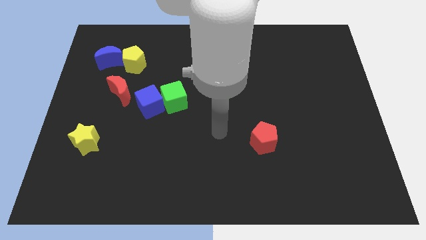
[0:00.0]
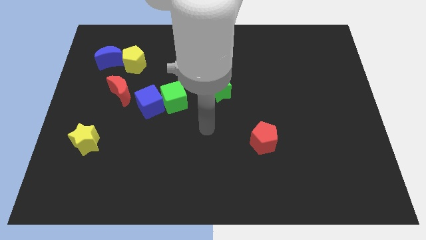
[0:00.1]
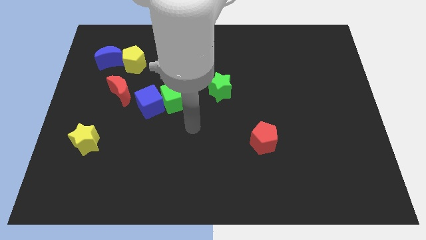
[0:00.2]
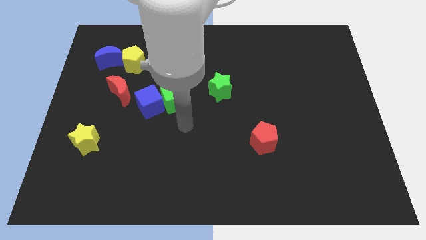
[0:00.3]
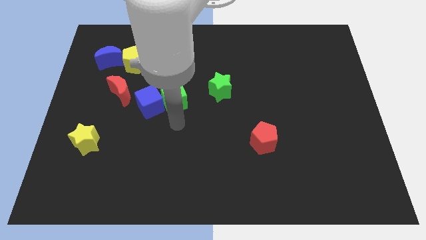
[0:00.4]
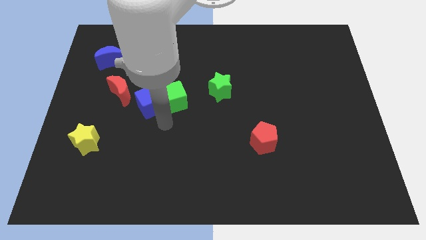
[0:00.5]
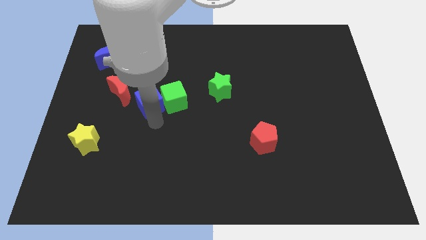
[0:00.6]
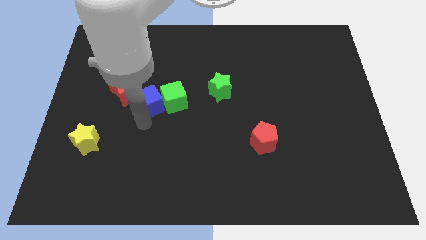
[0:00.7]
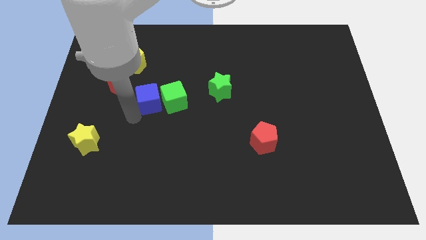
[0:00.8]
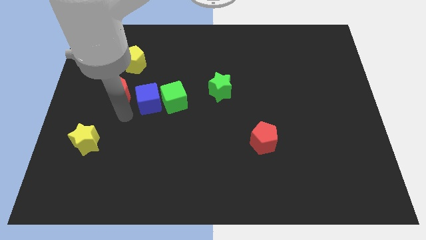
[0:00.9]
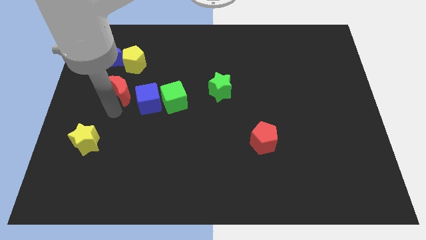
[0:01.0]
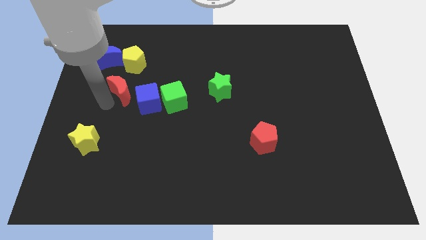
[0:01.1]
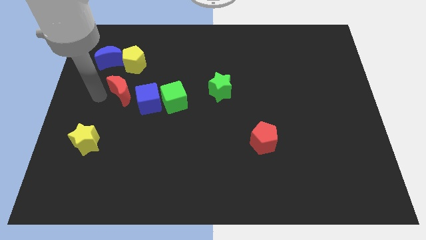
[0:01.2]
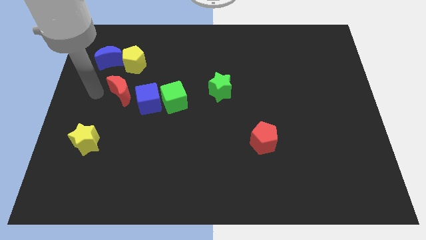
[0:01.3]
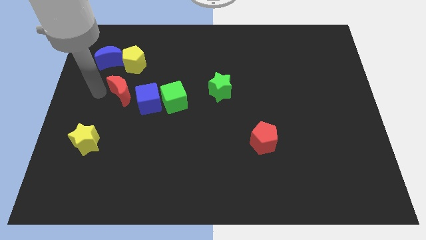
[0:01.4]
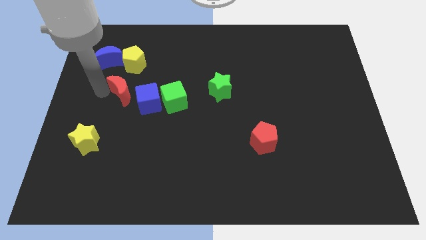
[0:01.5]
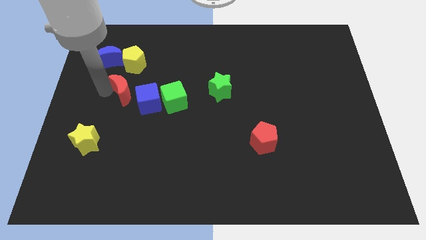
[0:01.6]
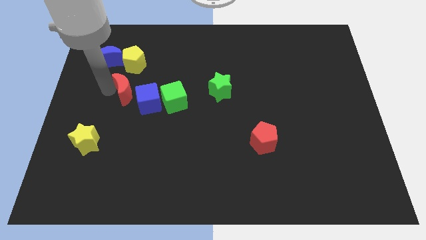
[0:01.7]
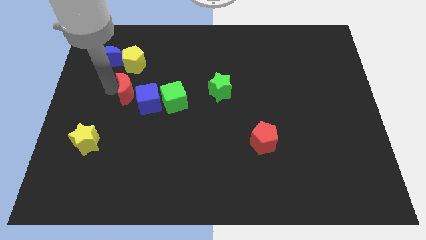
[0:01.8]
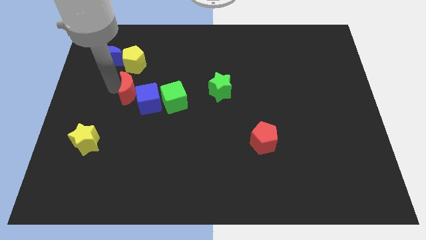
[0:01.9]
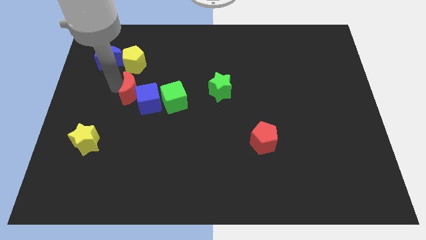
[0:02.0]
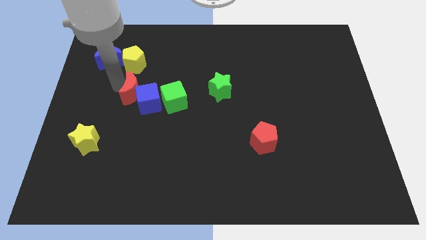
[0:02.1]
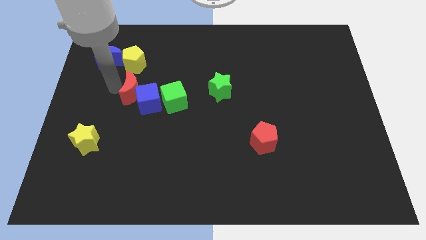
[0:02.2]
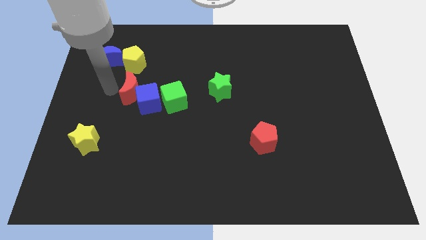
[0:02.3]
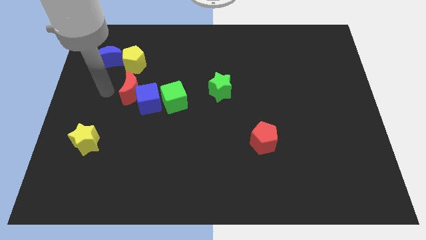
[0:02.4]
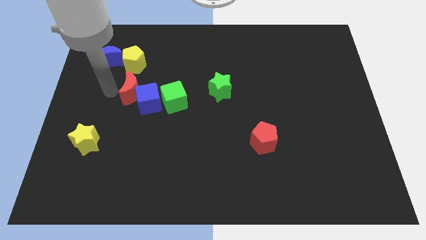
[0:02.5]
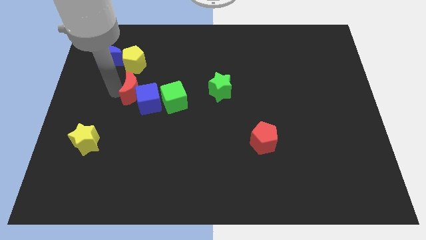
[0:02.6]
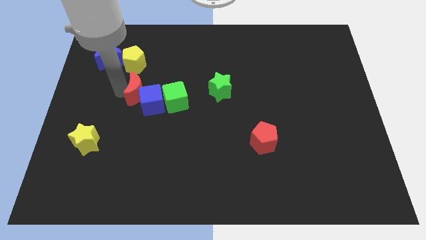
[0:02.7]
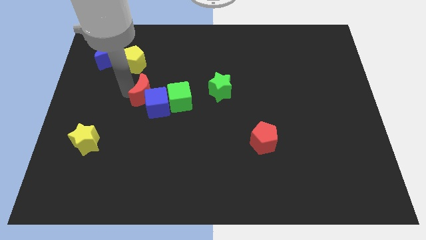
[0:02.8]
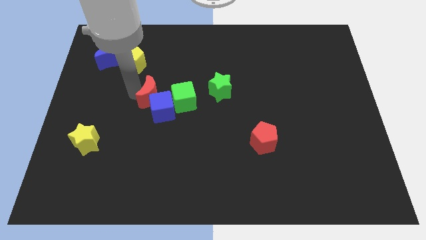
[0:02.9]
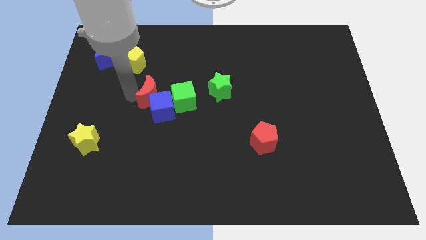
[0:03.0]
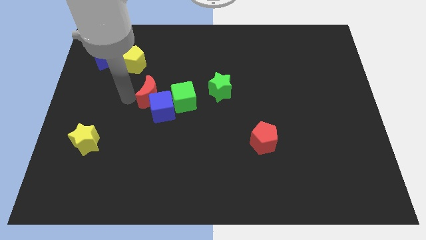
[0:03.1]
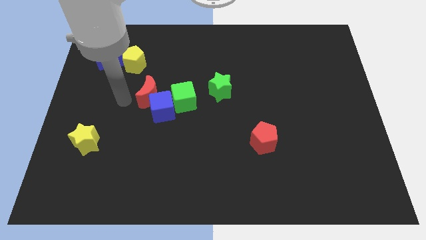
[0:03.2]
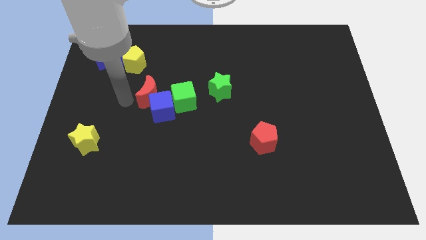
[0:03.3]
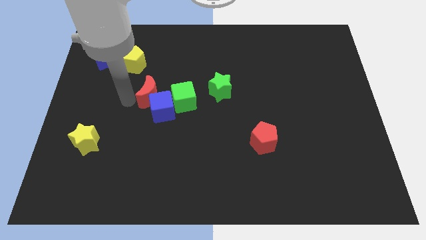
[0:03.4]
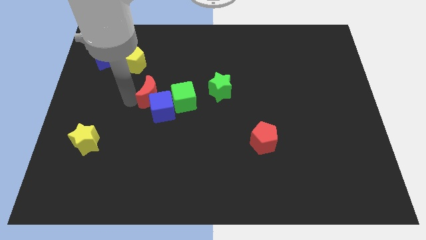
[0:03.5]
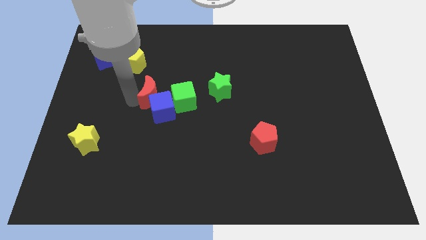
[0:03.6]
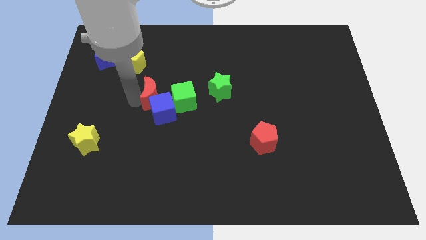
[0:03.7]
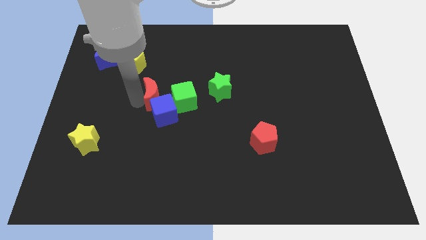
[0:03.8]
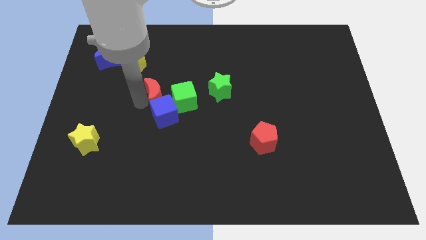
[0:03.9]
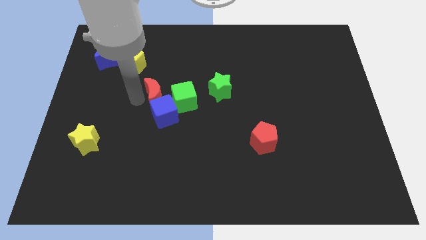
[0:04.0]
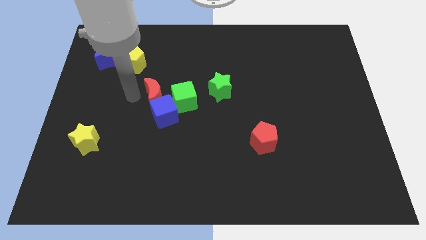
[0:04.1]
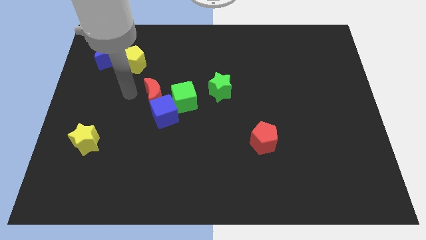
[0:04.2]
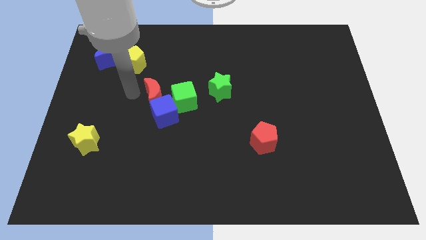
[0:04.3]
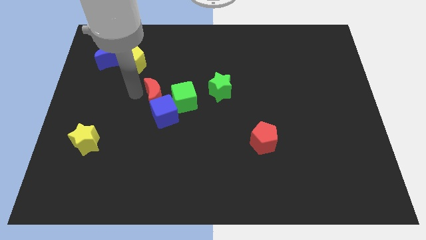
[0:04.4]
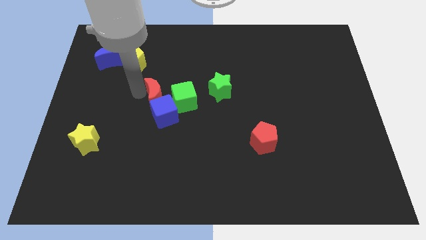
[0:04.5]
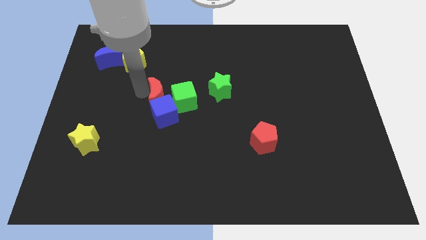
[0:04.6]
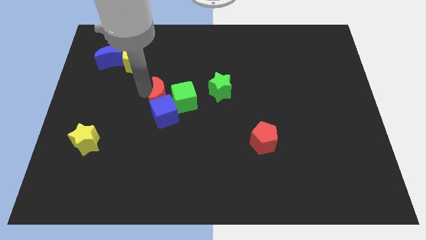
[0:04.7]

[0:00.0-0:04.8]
slide the red moon next to the green cube

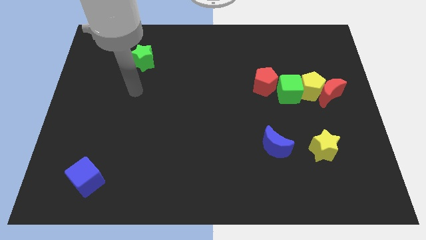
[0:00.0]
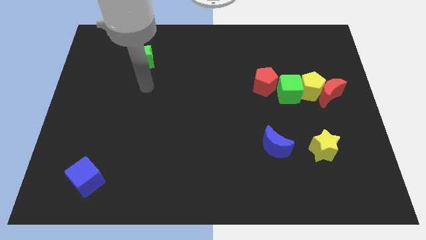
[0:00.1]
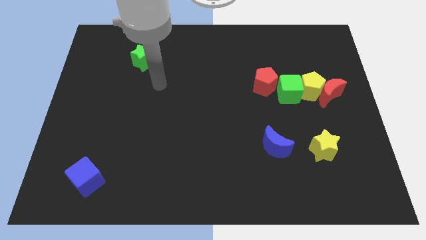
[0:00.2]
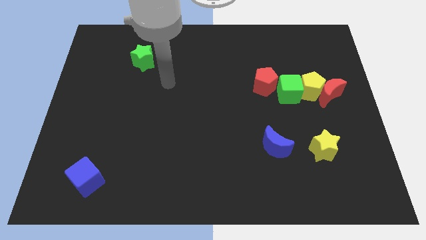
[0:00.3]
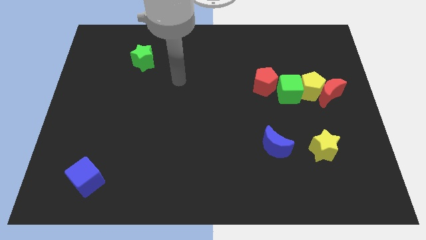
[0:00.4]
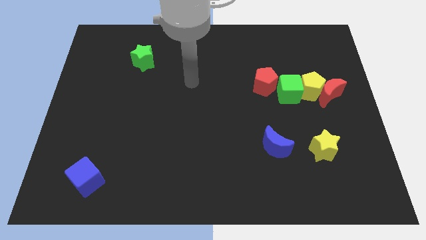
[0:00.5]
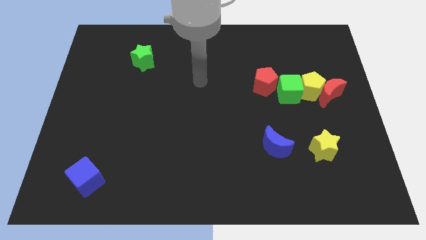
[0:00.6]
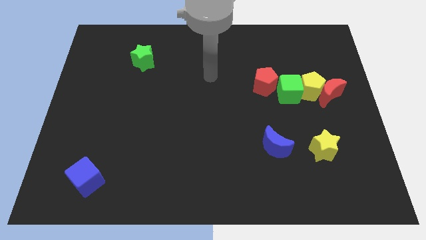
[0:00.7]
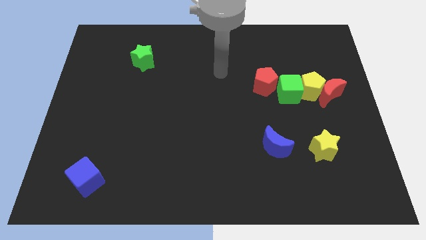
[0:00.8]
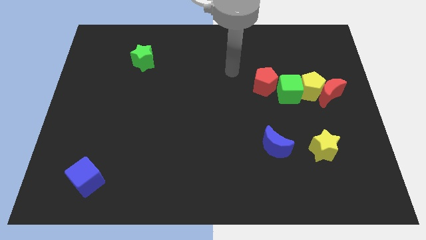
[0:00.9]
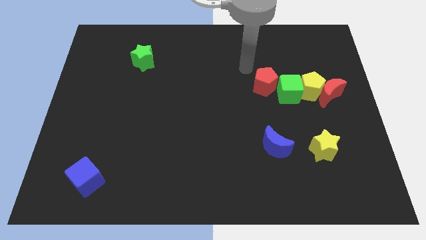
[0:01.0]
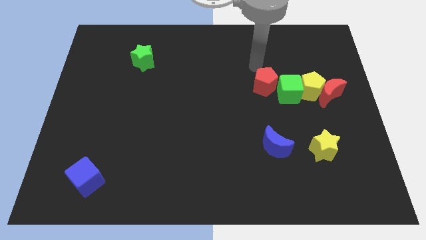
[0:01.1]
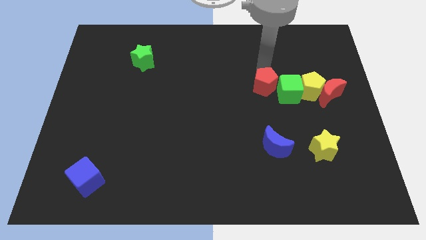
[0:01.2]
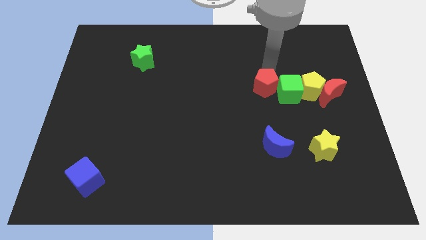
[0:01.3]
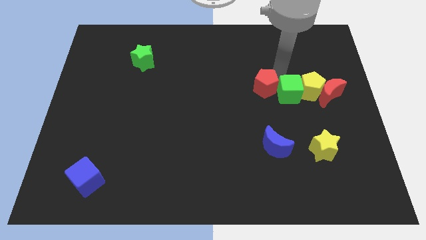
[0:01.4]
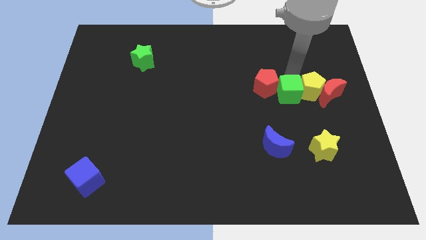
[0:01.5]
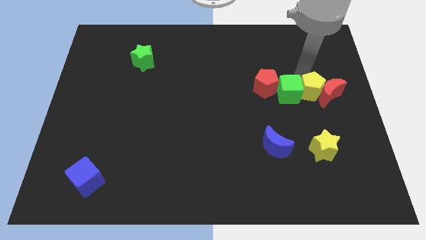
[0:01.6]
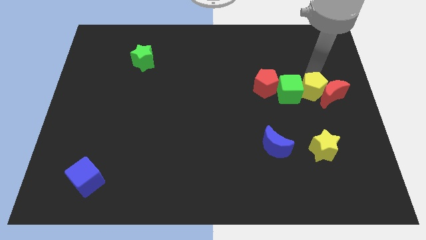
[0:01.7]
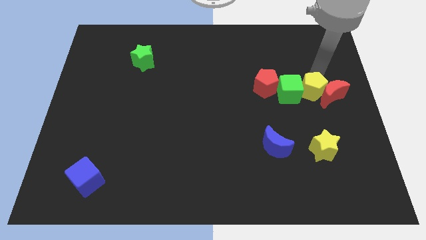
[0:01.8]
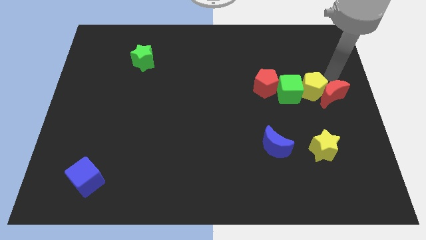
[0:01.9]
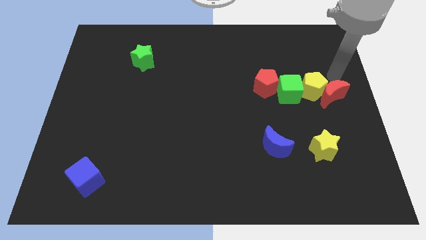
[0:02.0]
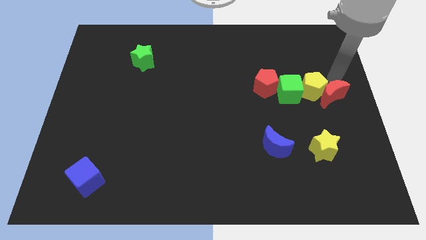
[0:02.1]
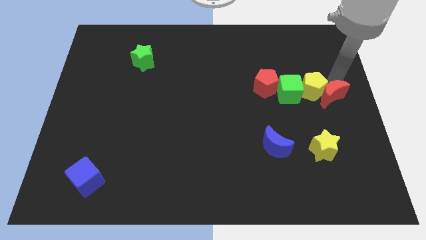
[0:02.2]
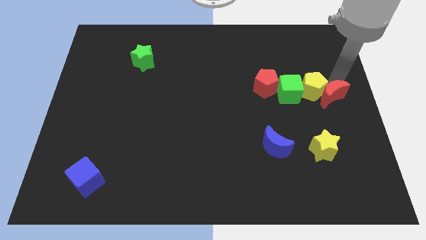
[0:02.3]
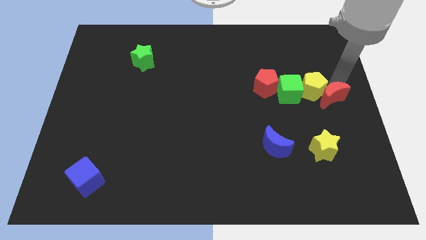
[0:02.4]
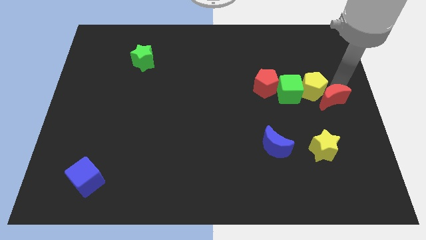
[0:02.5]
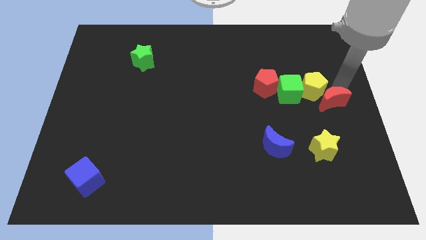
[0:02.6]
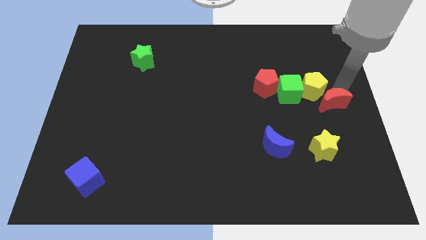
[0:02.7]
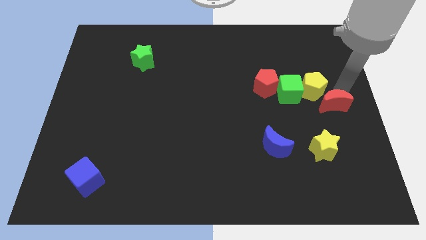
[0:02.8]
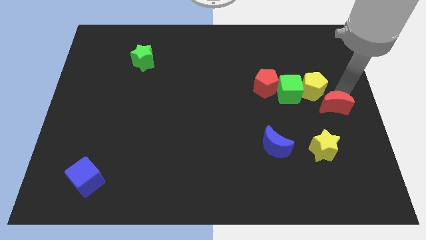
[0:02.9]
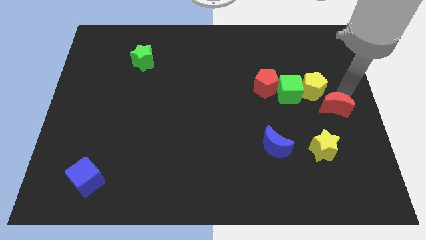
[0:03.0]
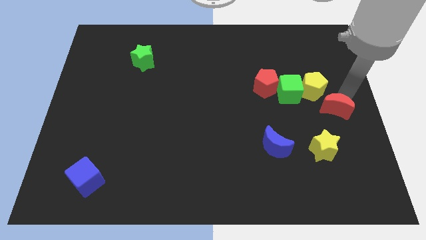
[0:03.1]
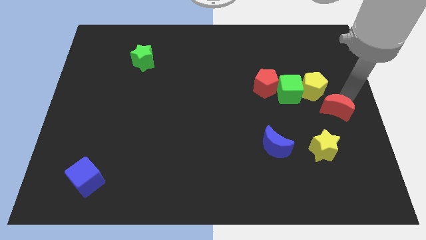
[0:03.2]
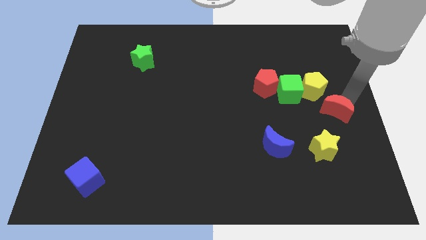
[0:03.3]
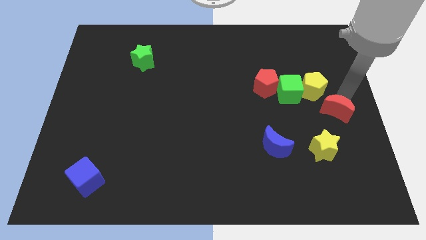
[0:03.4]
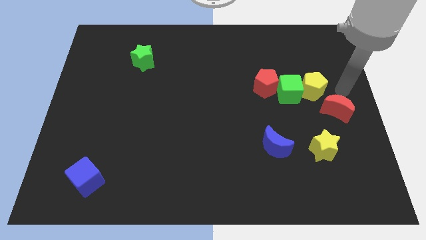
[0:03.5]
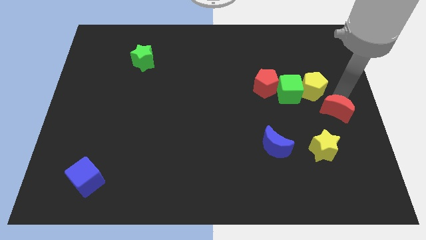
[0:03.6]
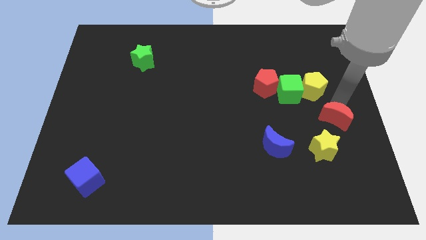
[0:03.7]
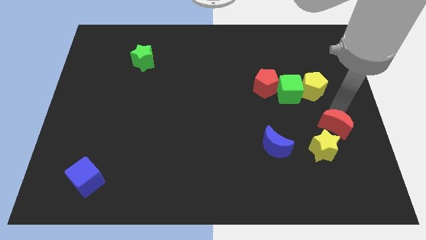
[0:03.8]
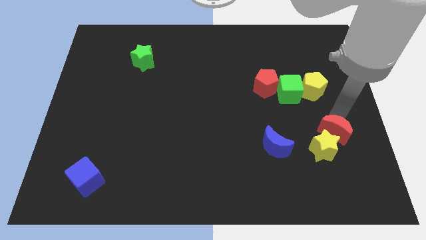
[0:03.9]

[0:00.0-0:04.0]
put the red moon next to the yellow star
